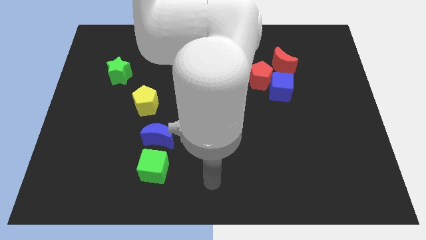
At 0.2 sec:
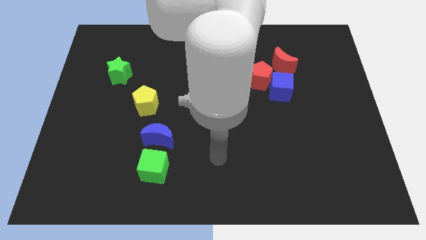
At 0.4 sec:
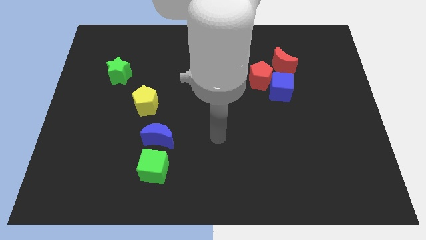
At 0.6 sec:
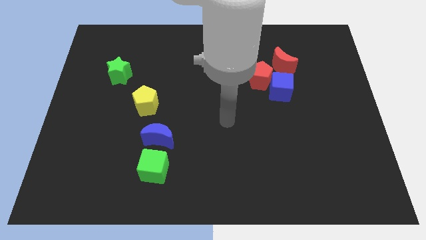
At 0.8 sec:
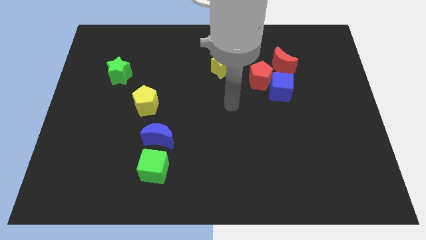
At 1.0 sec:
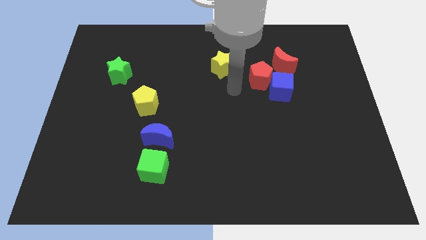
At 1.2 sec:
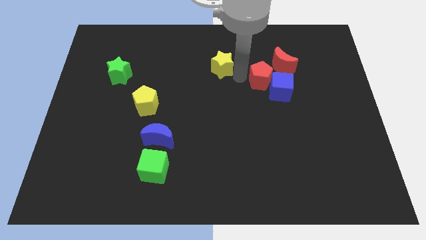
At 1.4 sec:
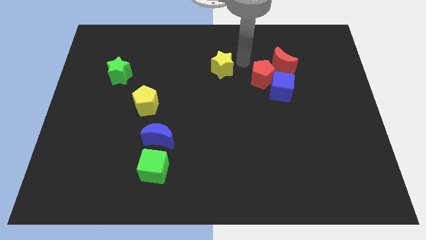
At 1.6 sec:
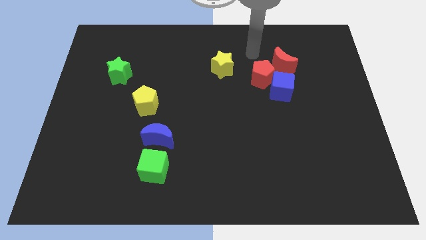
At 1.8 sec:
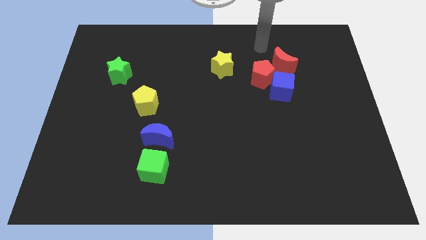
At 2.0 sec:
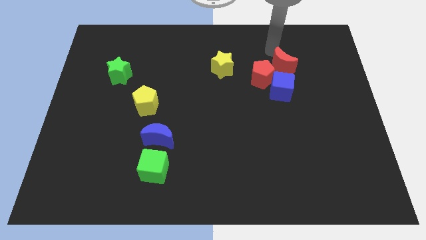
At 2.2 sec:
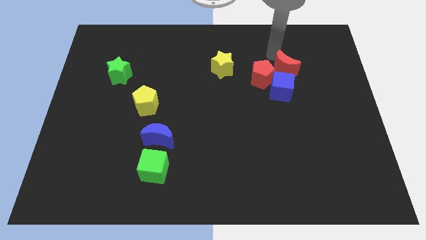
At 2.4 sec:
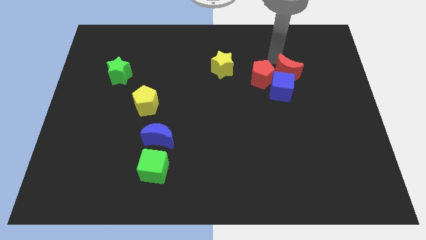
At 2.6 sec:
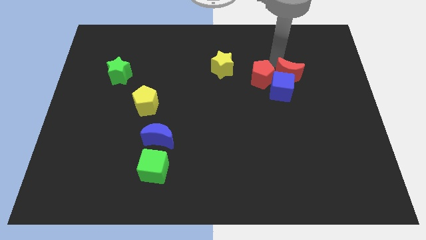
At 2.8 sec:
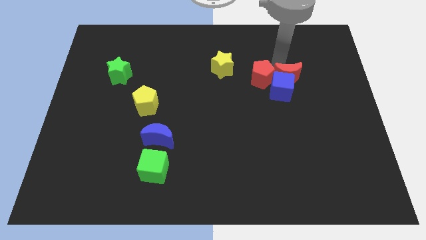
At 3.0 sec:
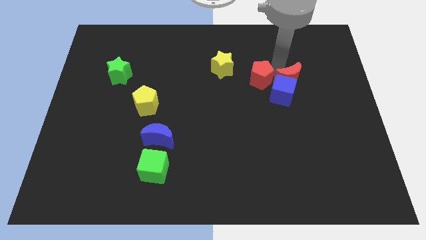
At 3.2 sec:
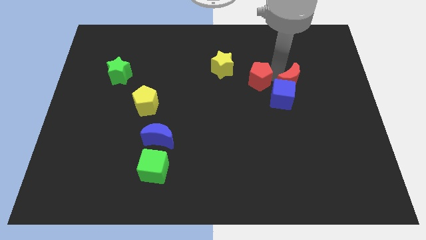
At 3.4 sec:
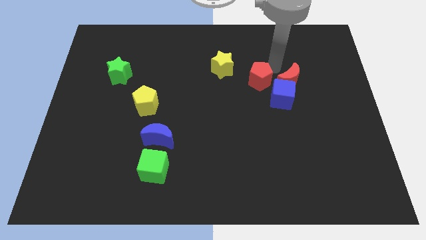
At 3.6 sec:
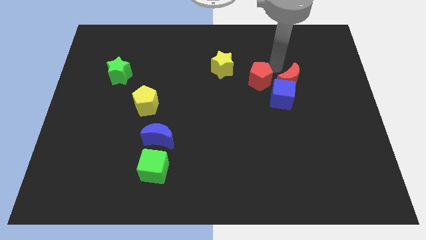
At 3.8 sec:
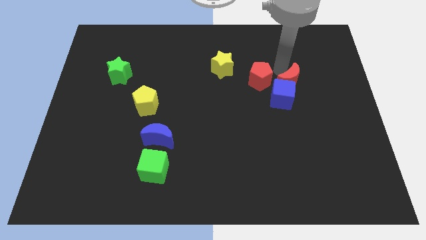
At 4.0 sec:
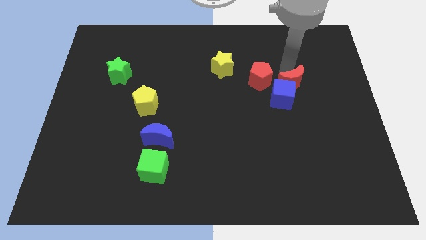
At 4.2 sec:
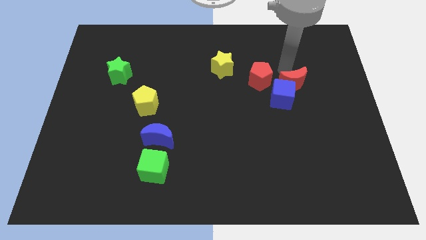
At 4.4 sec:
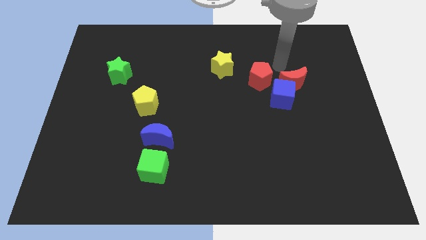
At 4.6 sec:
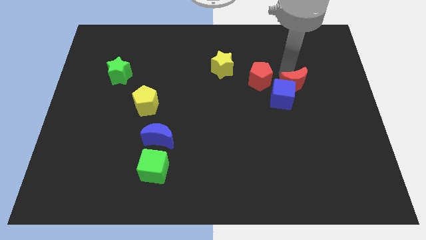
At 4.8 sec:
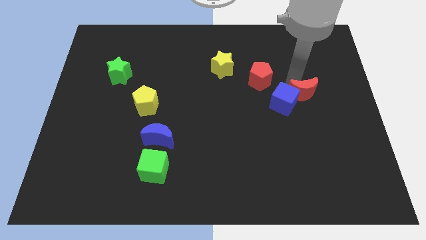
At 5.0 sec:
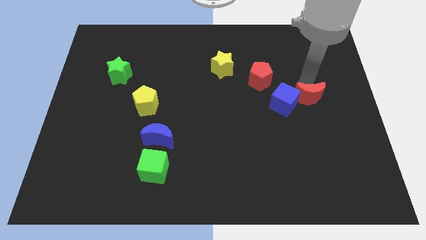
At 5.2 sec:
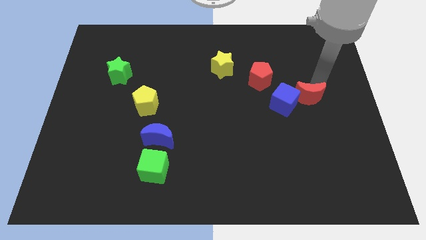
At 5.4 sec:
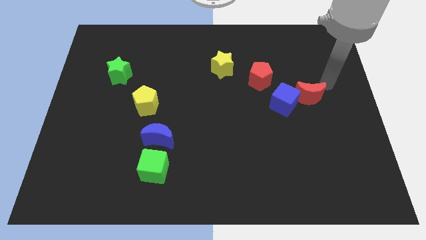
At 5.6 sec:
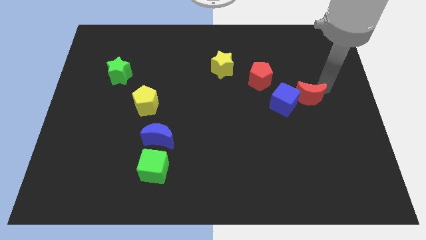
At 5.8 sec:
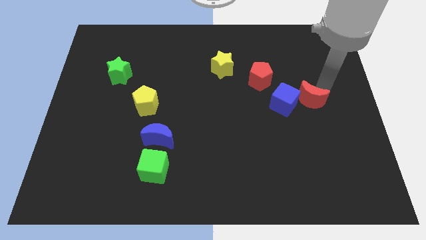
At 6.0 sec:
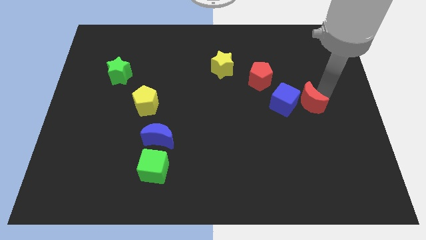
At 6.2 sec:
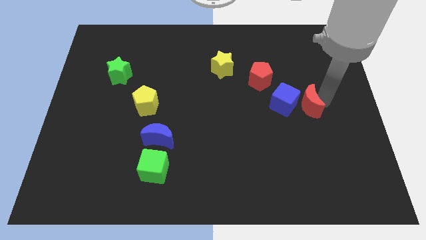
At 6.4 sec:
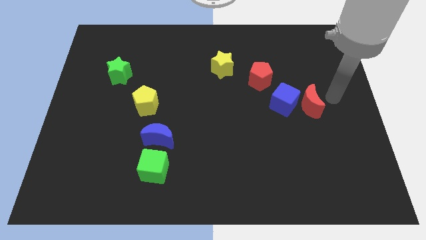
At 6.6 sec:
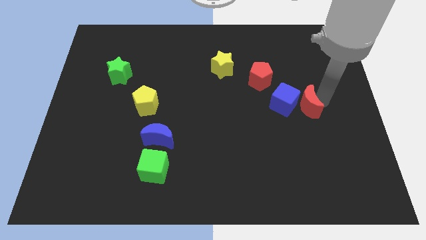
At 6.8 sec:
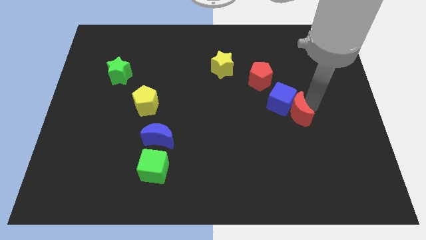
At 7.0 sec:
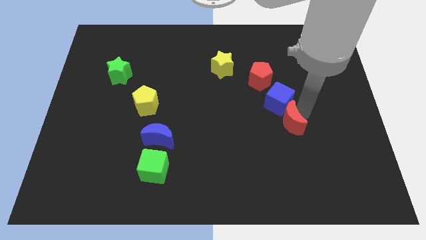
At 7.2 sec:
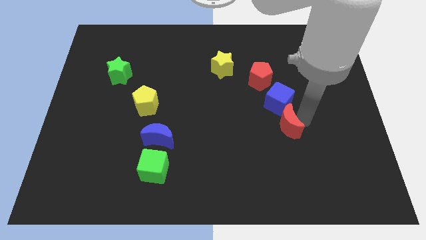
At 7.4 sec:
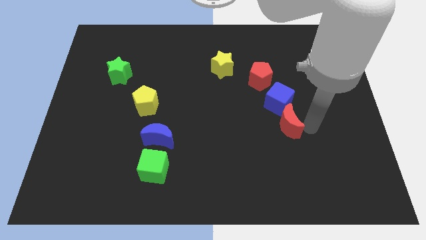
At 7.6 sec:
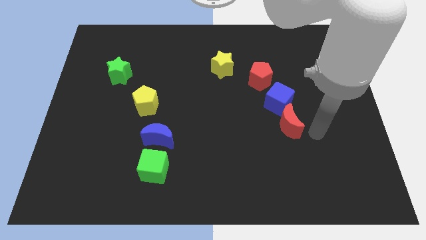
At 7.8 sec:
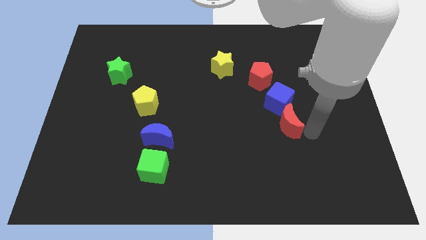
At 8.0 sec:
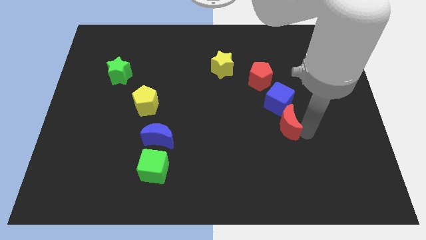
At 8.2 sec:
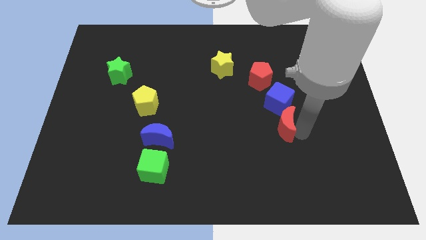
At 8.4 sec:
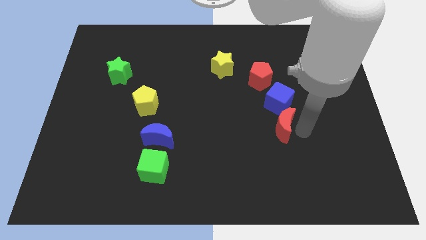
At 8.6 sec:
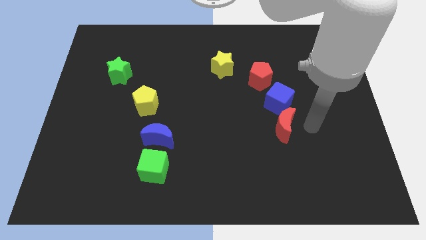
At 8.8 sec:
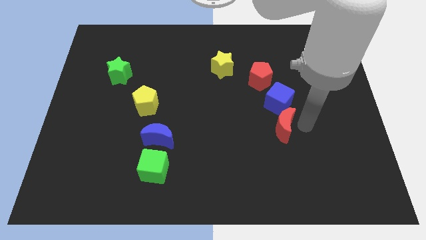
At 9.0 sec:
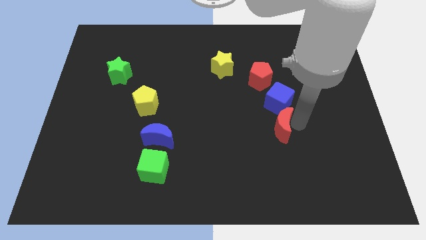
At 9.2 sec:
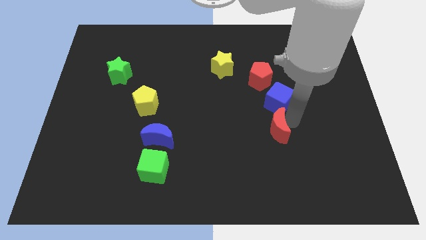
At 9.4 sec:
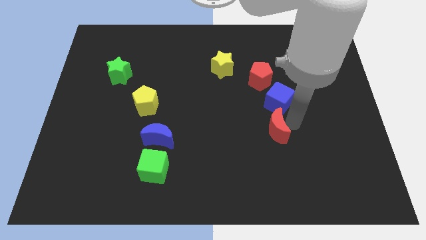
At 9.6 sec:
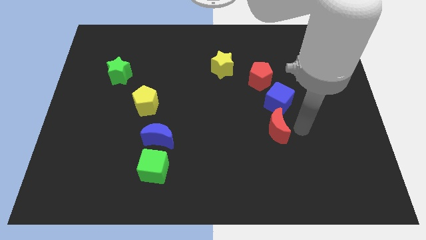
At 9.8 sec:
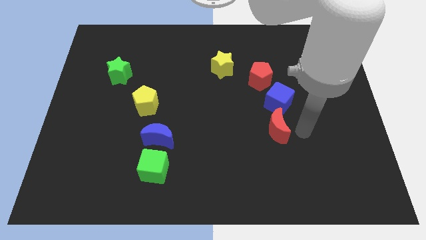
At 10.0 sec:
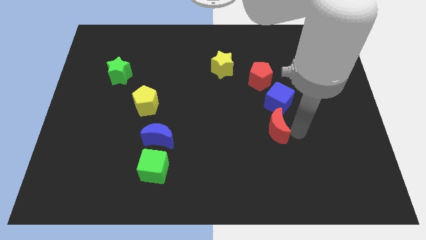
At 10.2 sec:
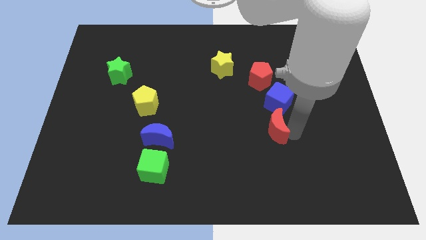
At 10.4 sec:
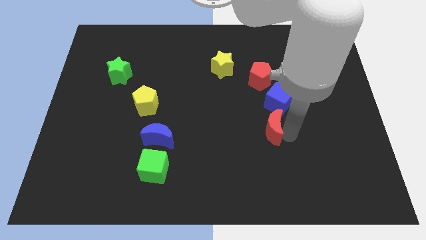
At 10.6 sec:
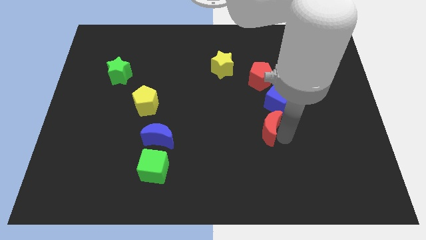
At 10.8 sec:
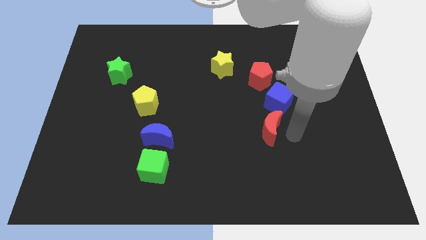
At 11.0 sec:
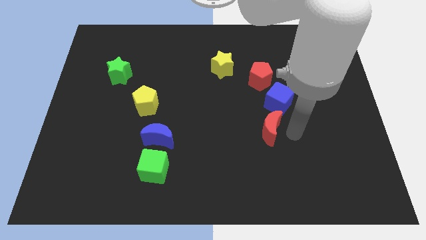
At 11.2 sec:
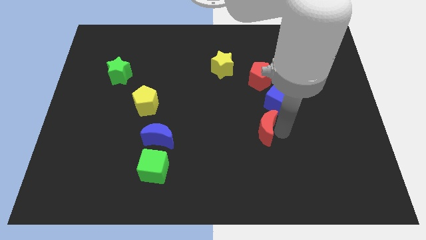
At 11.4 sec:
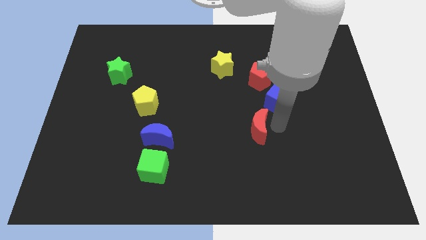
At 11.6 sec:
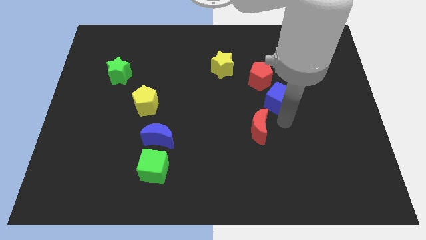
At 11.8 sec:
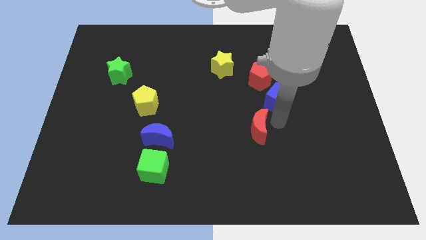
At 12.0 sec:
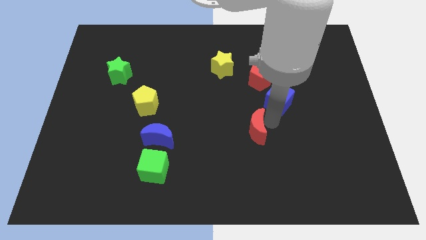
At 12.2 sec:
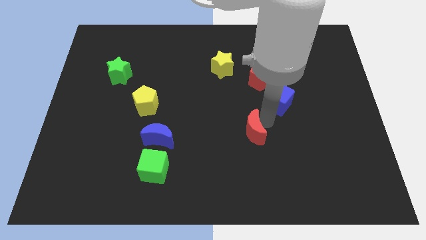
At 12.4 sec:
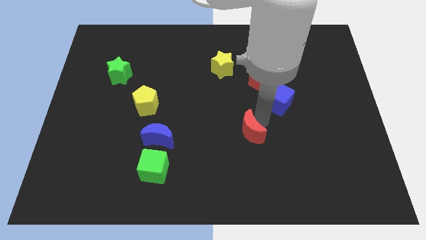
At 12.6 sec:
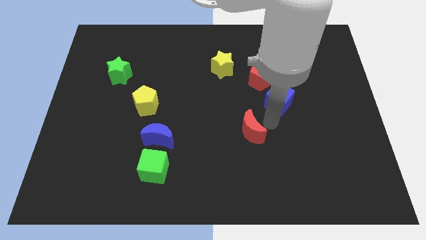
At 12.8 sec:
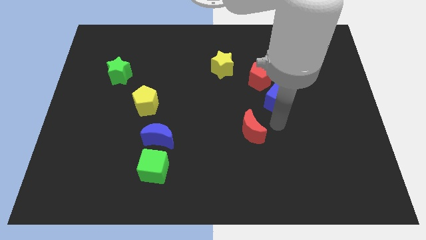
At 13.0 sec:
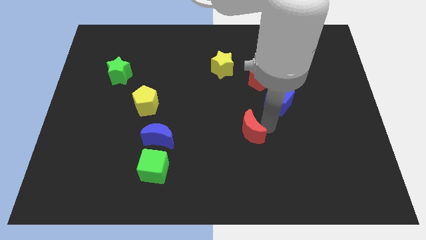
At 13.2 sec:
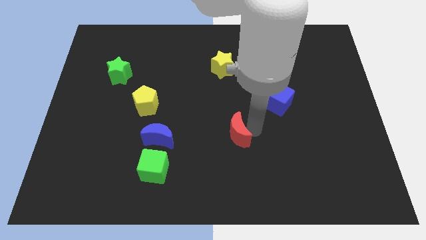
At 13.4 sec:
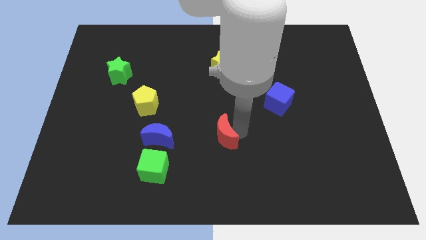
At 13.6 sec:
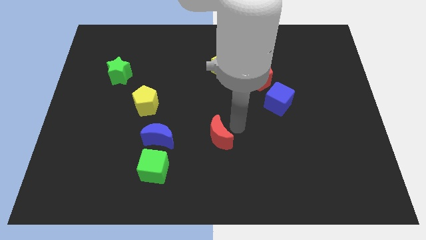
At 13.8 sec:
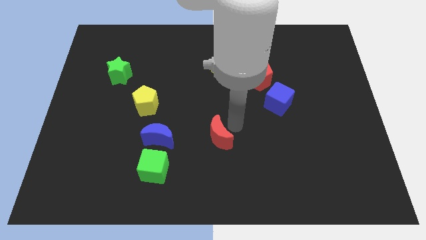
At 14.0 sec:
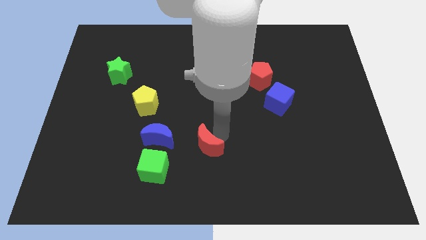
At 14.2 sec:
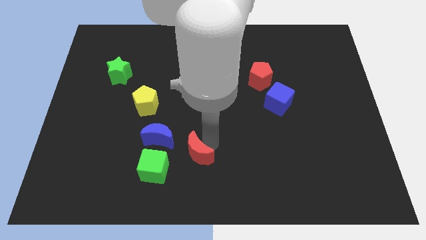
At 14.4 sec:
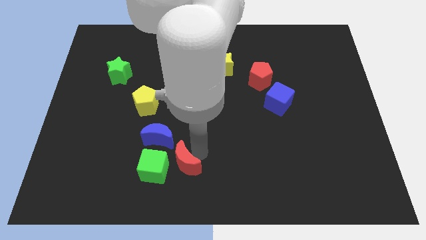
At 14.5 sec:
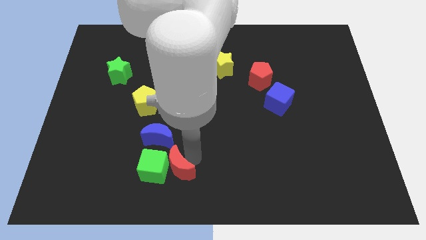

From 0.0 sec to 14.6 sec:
move the red moon below the blue moon
